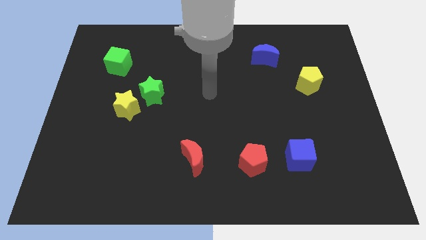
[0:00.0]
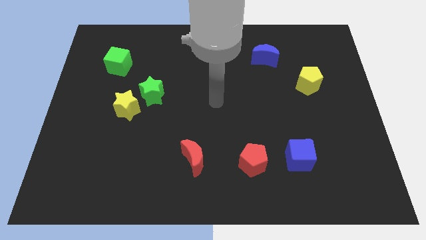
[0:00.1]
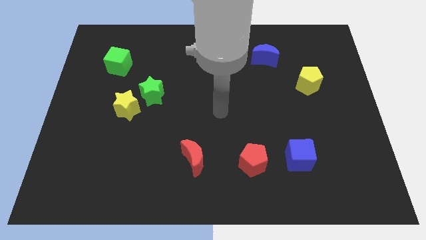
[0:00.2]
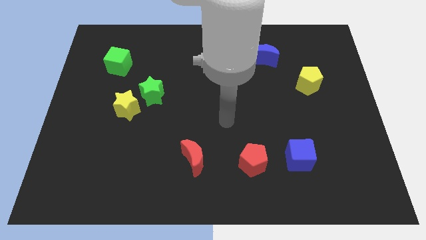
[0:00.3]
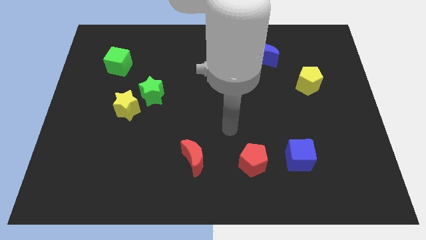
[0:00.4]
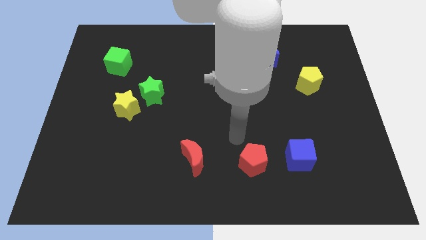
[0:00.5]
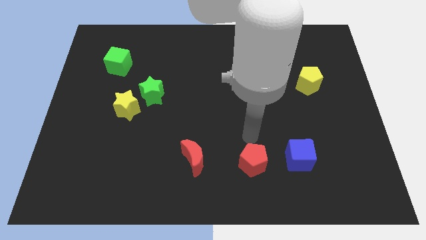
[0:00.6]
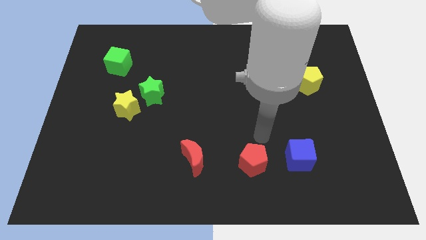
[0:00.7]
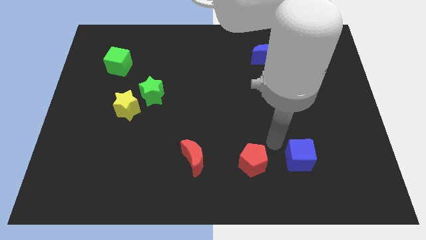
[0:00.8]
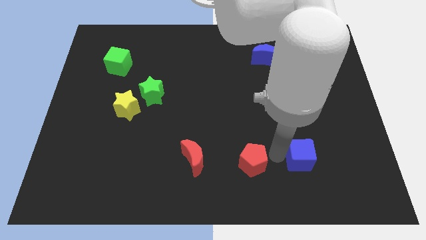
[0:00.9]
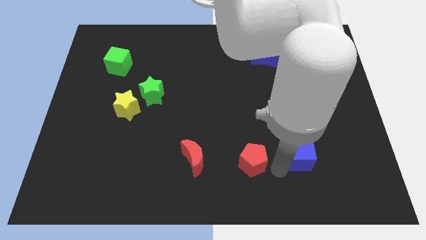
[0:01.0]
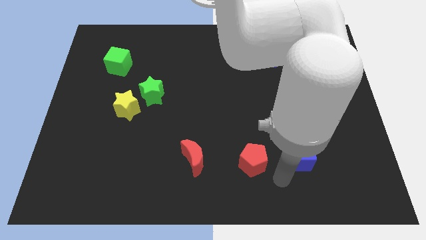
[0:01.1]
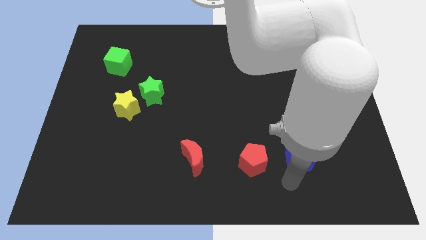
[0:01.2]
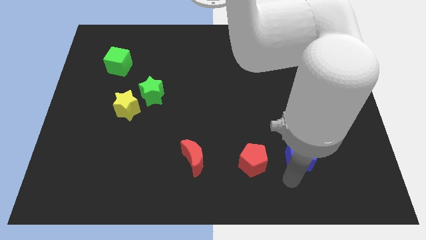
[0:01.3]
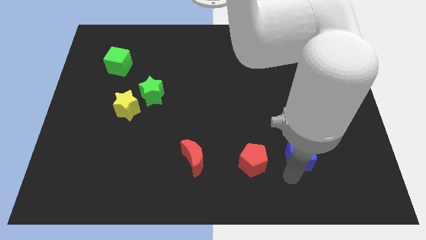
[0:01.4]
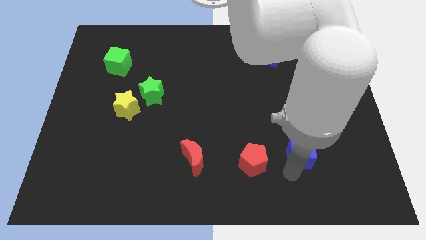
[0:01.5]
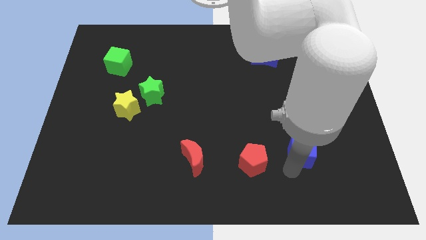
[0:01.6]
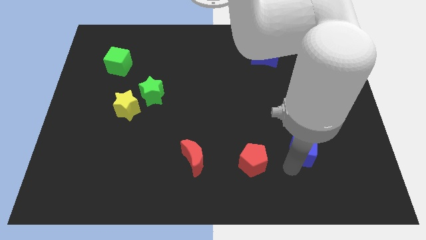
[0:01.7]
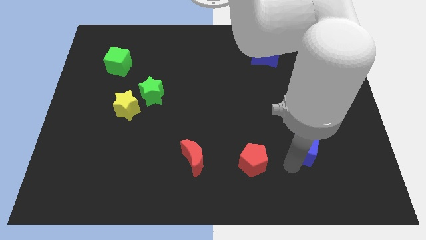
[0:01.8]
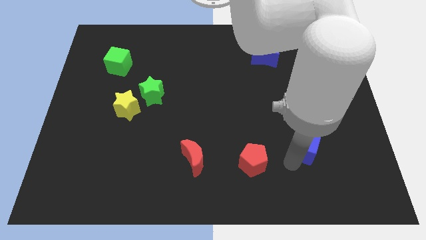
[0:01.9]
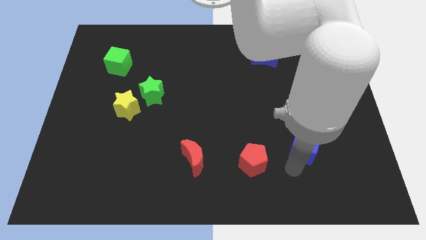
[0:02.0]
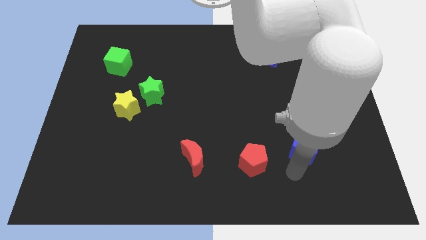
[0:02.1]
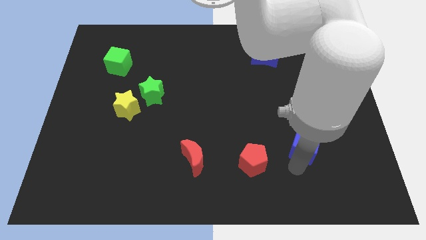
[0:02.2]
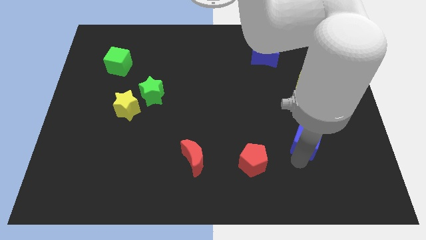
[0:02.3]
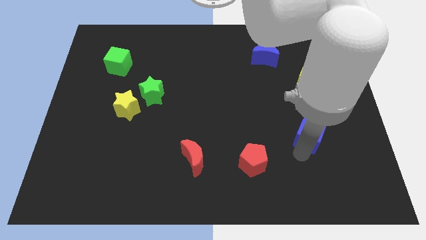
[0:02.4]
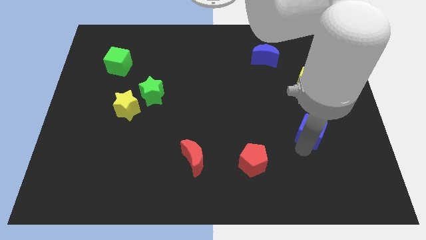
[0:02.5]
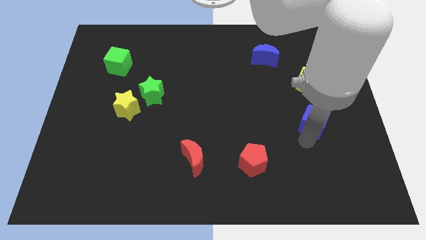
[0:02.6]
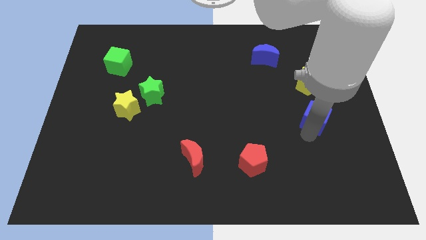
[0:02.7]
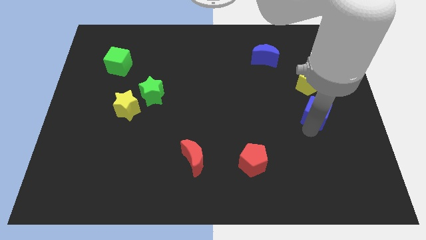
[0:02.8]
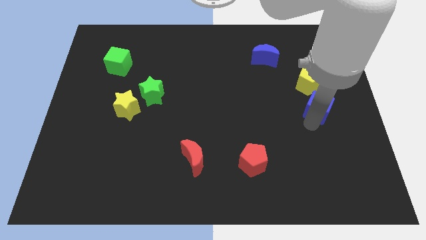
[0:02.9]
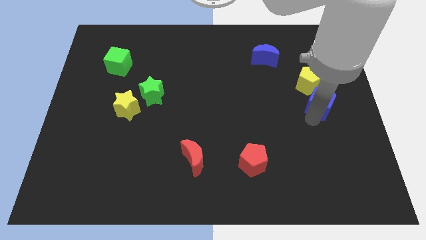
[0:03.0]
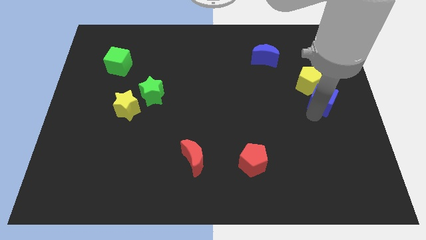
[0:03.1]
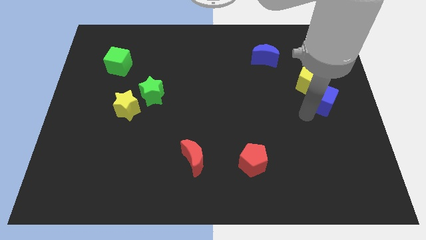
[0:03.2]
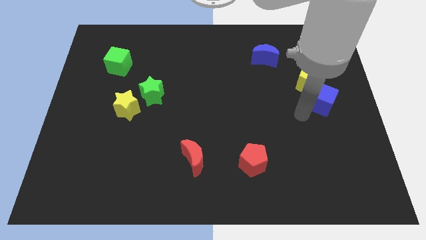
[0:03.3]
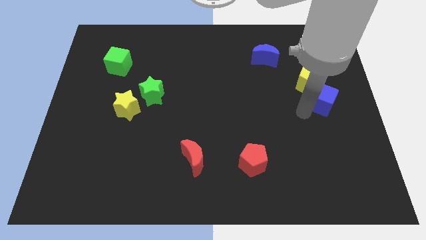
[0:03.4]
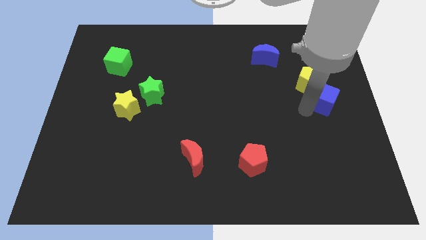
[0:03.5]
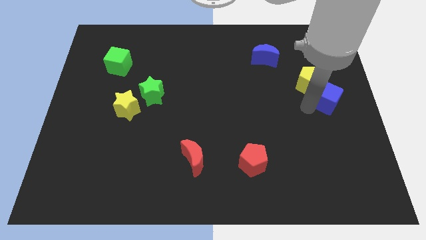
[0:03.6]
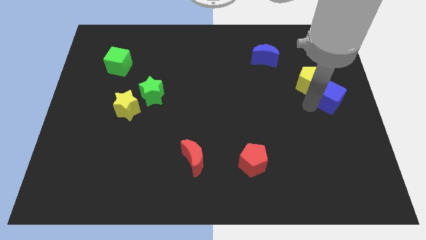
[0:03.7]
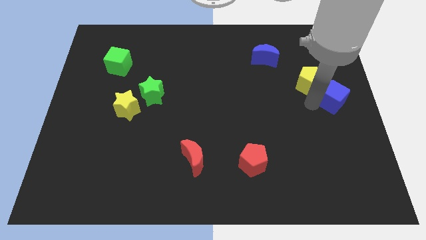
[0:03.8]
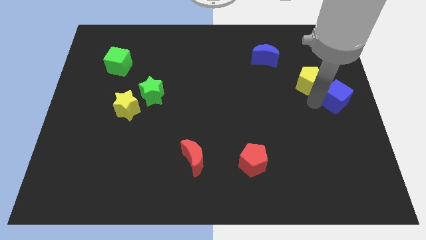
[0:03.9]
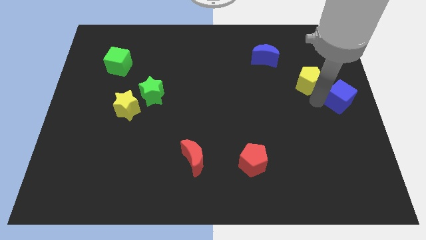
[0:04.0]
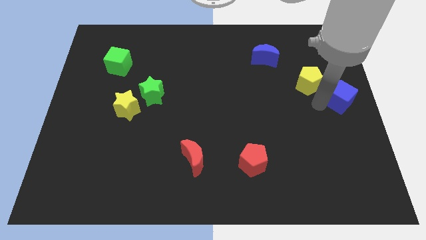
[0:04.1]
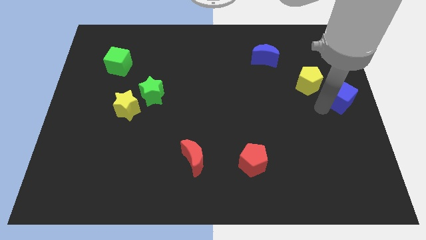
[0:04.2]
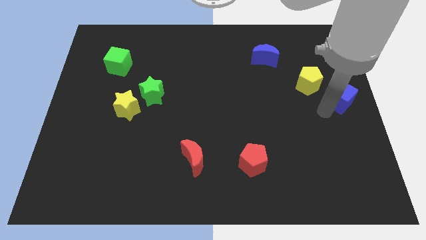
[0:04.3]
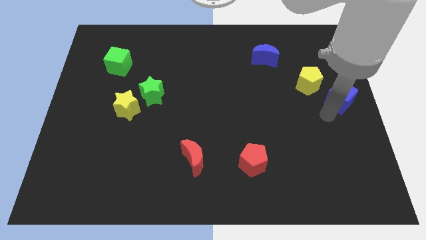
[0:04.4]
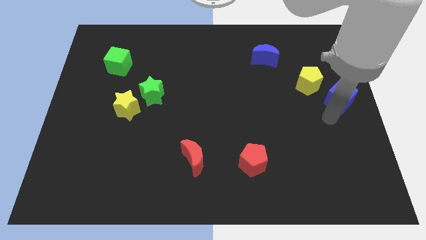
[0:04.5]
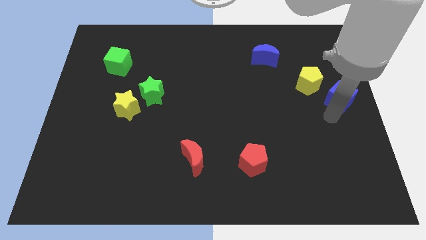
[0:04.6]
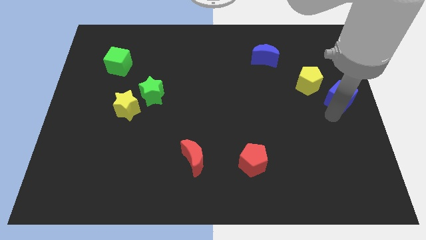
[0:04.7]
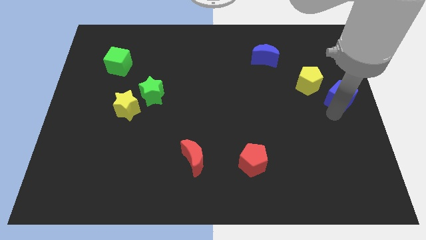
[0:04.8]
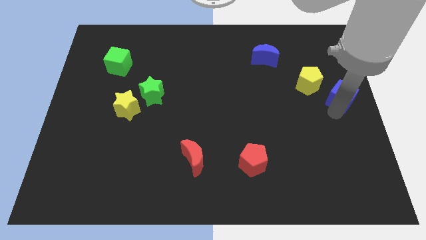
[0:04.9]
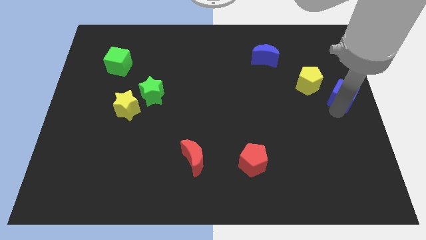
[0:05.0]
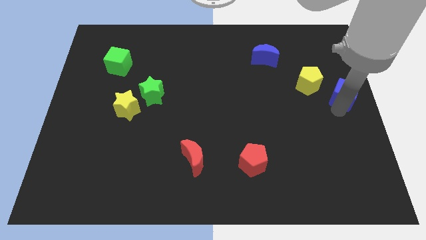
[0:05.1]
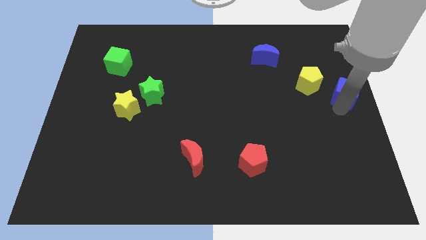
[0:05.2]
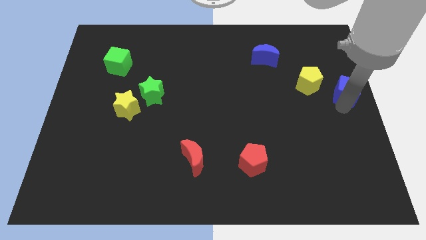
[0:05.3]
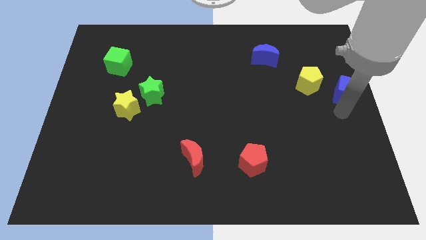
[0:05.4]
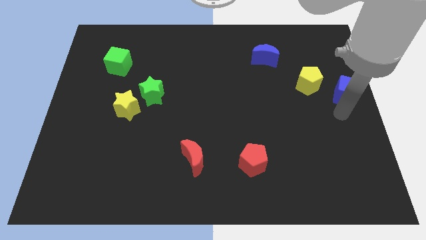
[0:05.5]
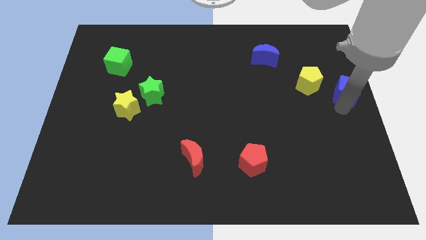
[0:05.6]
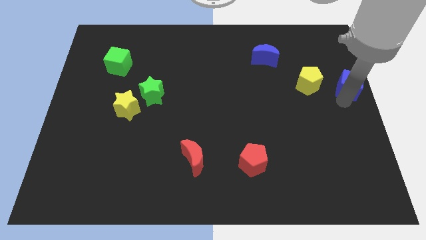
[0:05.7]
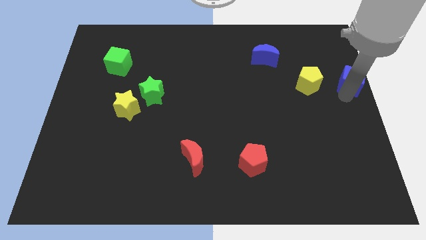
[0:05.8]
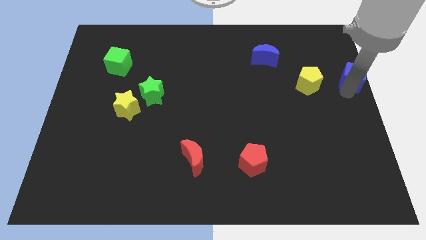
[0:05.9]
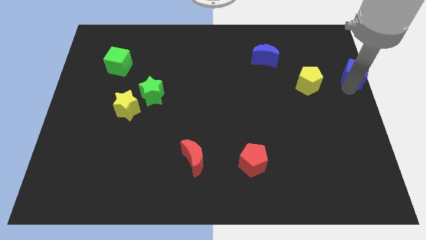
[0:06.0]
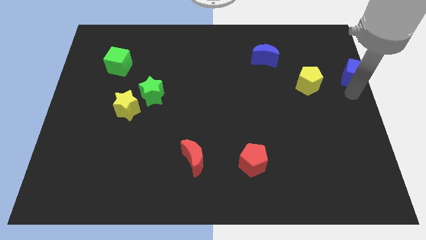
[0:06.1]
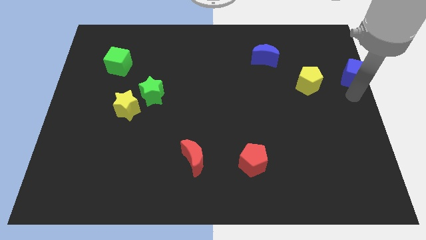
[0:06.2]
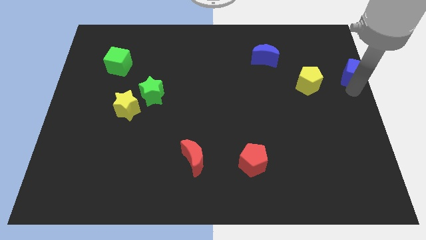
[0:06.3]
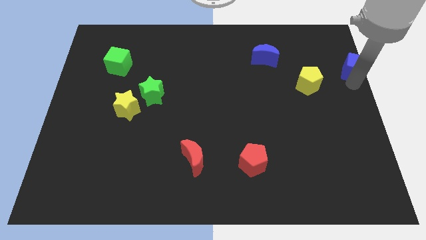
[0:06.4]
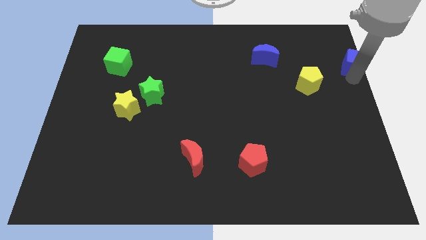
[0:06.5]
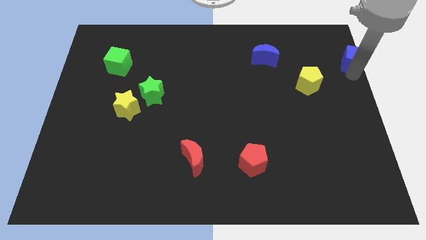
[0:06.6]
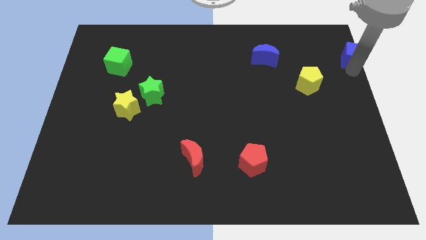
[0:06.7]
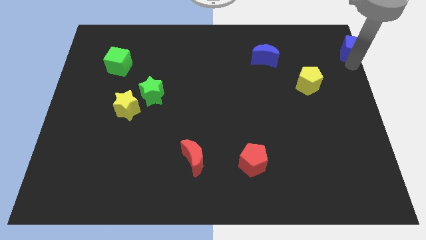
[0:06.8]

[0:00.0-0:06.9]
put the blue cube to the top right
